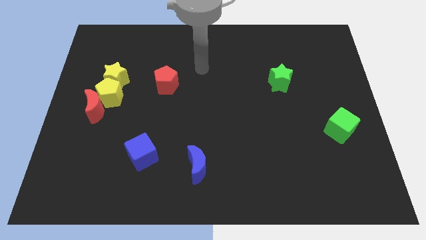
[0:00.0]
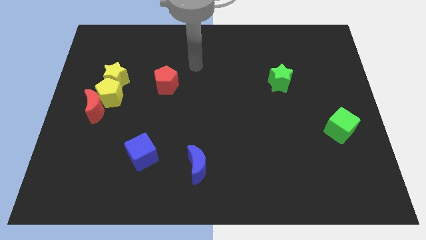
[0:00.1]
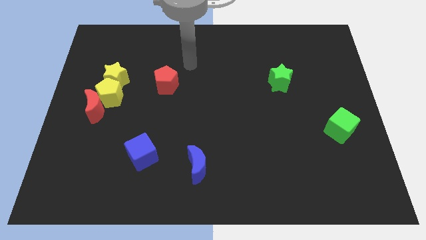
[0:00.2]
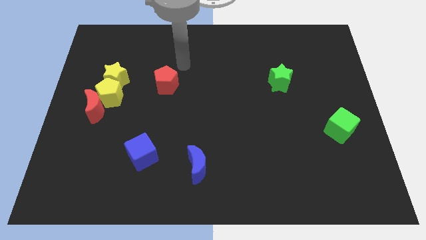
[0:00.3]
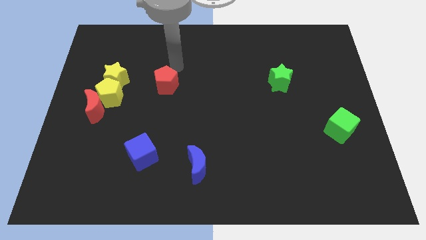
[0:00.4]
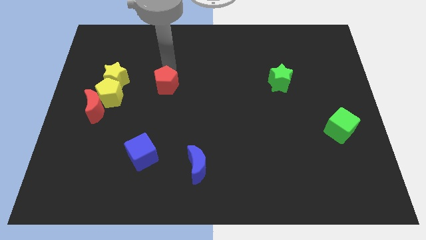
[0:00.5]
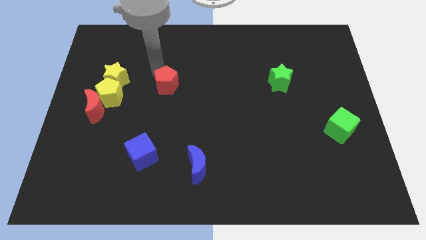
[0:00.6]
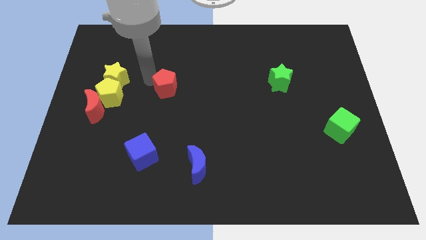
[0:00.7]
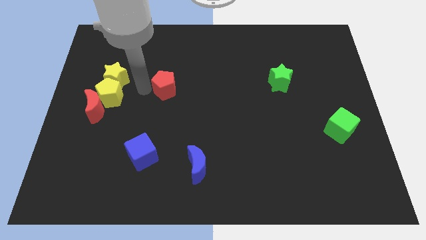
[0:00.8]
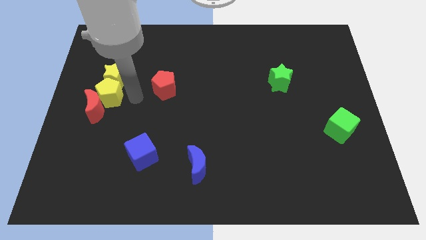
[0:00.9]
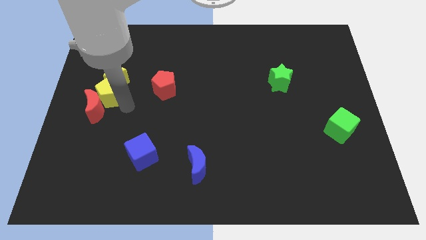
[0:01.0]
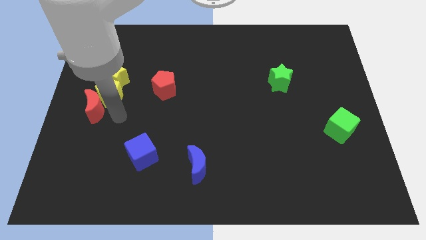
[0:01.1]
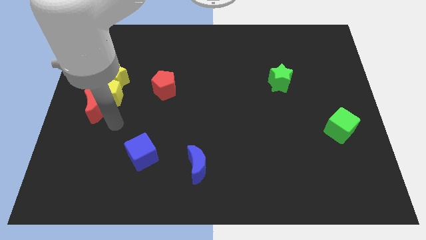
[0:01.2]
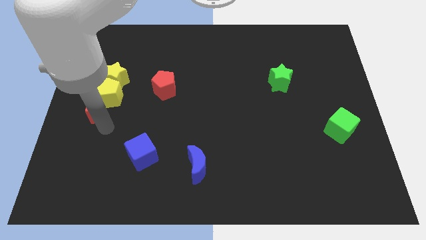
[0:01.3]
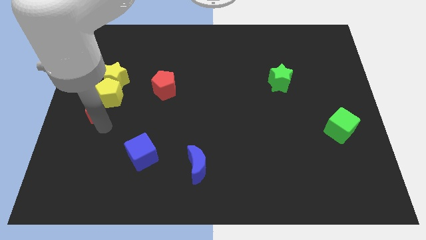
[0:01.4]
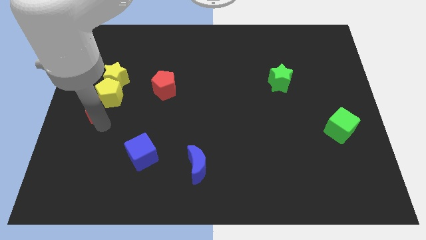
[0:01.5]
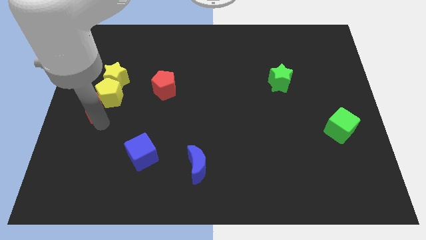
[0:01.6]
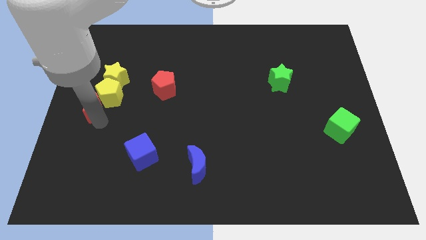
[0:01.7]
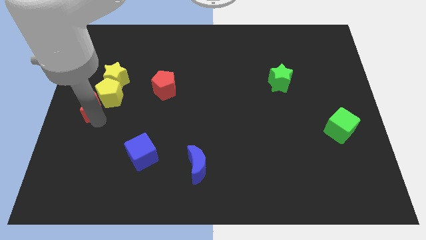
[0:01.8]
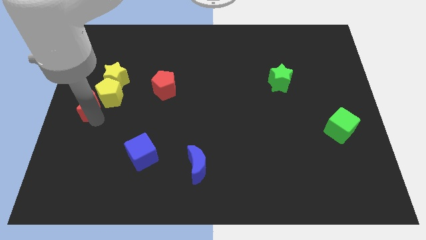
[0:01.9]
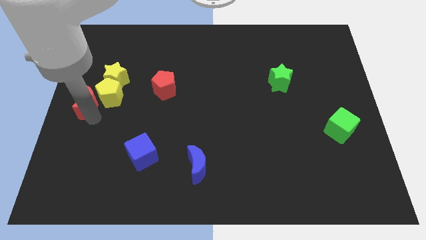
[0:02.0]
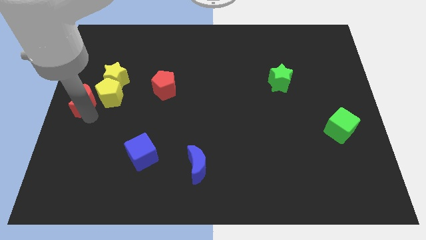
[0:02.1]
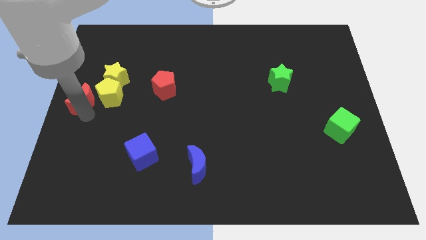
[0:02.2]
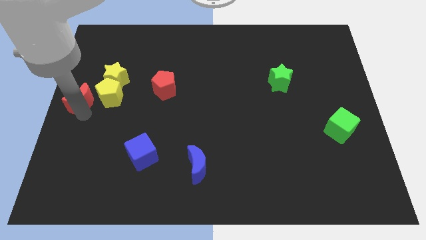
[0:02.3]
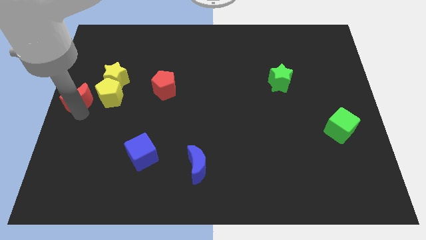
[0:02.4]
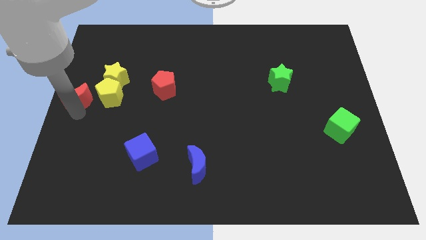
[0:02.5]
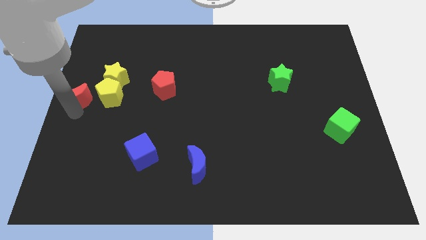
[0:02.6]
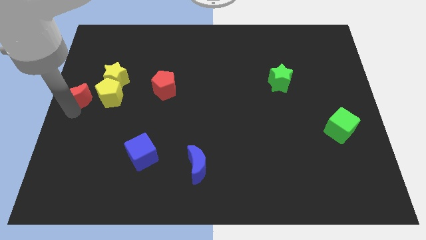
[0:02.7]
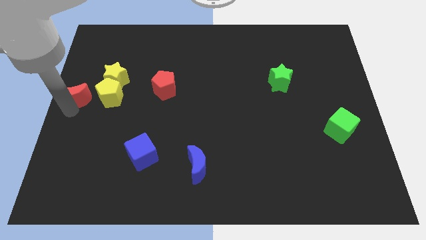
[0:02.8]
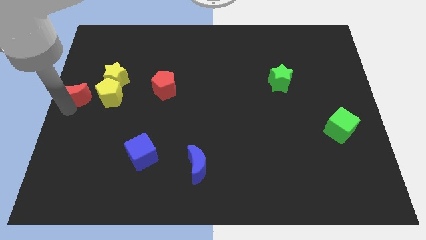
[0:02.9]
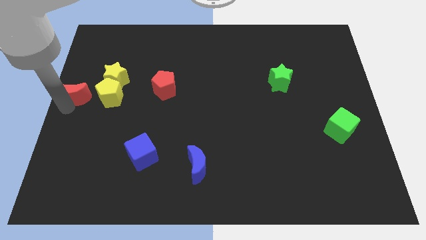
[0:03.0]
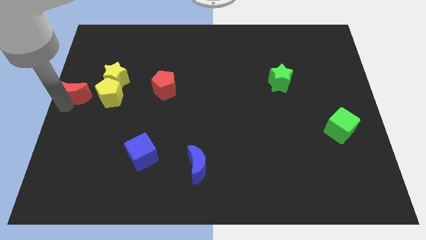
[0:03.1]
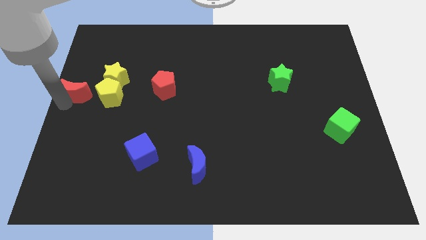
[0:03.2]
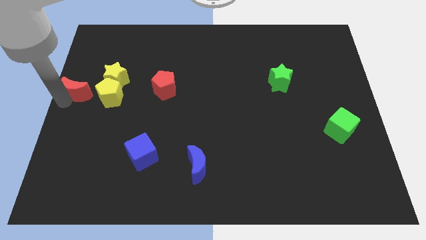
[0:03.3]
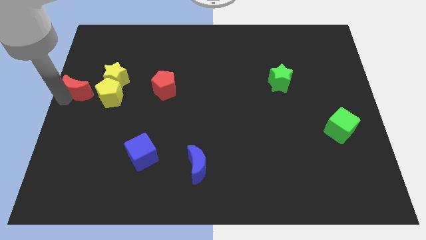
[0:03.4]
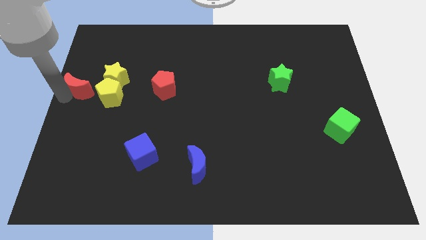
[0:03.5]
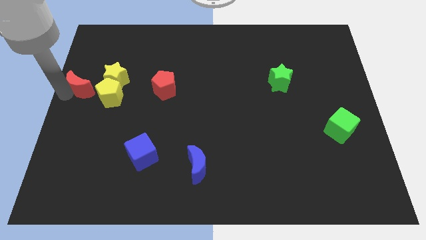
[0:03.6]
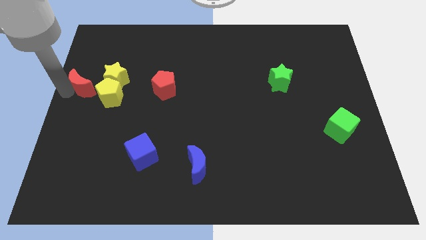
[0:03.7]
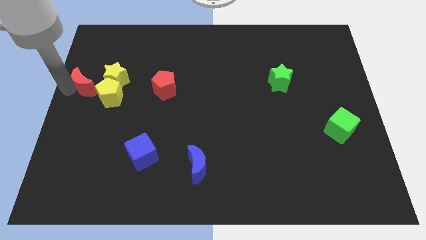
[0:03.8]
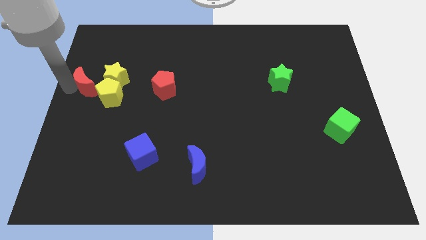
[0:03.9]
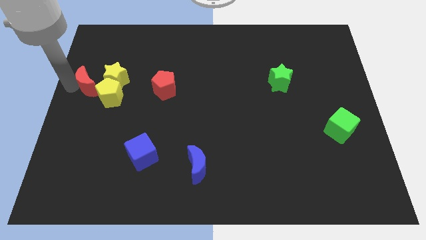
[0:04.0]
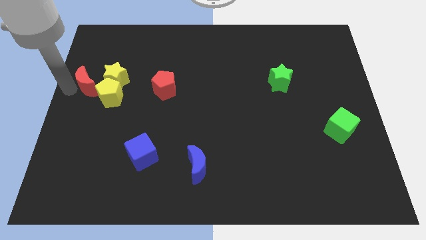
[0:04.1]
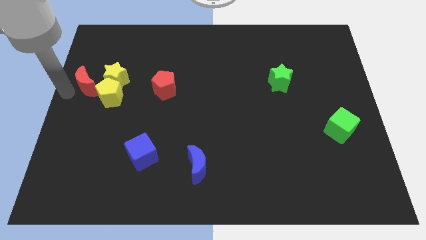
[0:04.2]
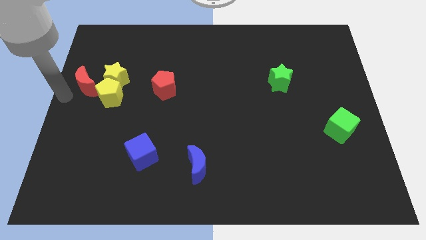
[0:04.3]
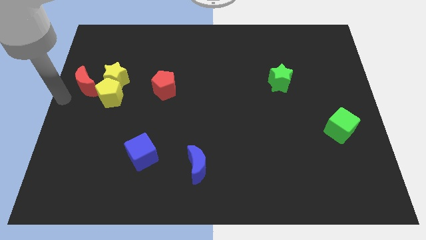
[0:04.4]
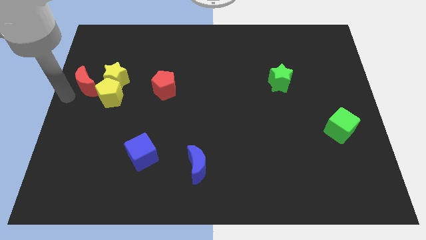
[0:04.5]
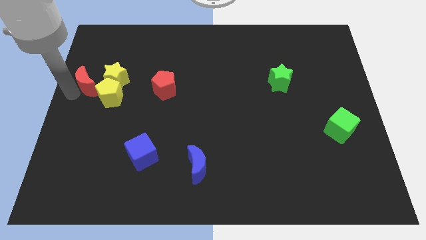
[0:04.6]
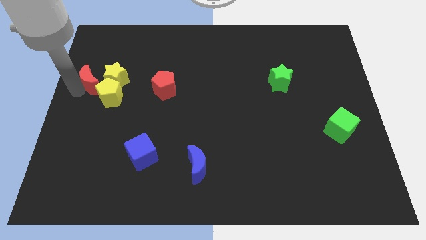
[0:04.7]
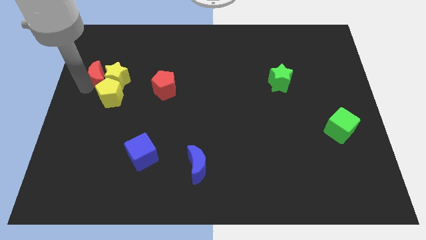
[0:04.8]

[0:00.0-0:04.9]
put the red moon to the top of the yellow pentagon

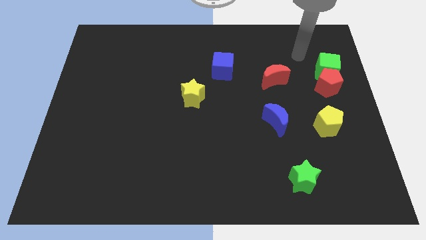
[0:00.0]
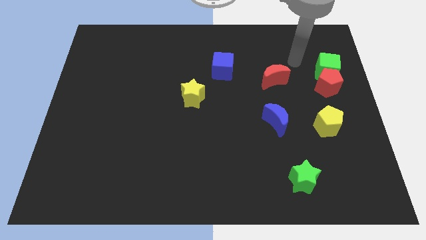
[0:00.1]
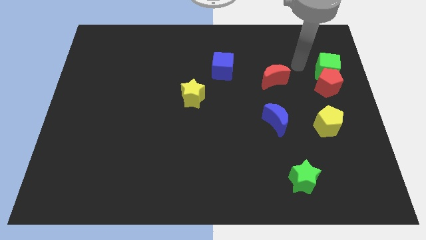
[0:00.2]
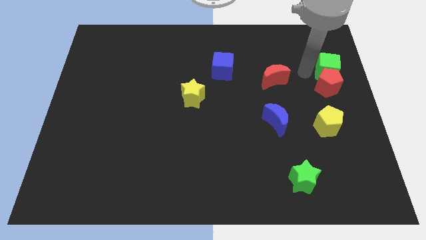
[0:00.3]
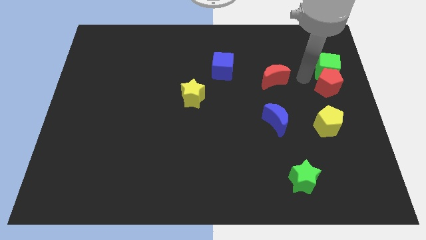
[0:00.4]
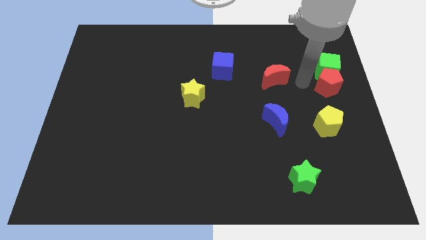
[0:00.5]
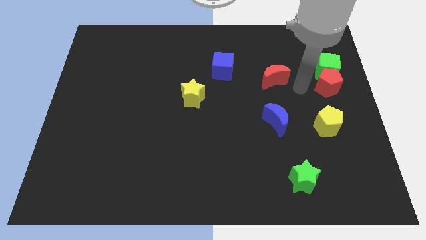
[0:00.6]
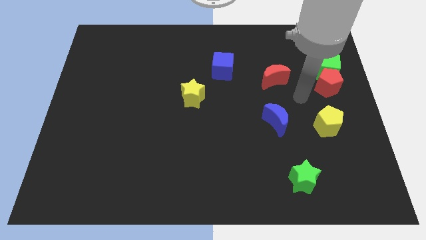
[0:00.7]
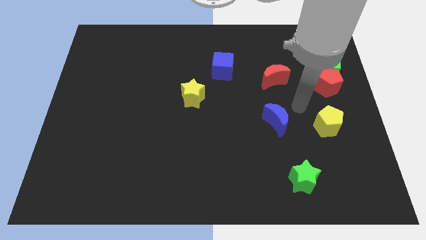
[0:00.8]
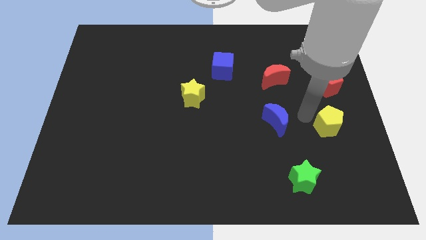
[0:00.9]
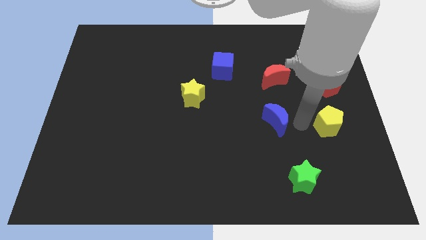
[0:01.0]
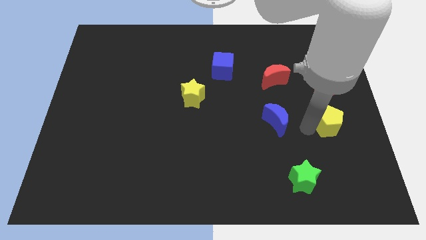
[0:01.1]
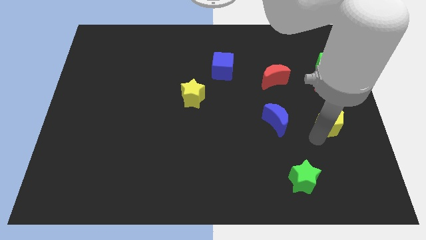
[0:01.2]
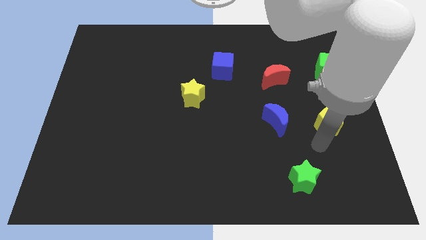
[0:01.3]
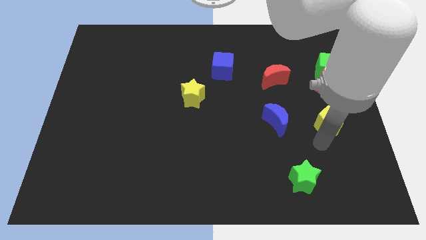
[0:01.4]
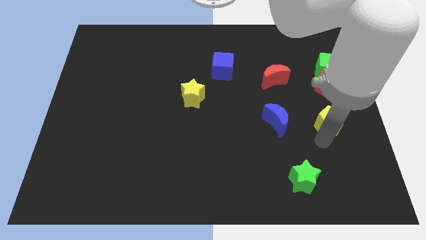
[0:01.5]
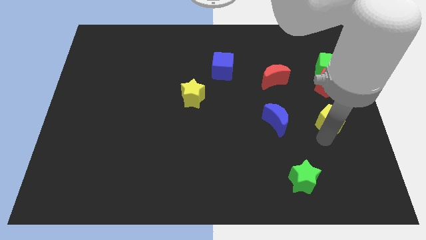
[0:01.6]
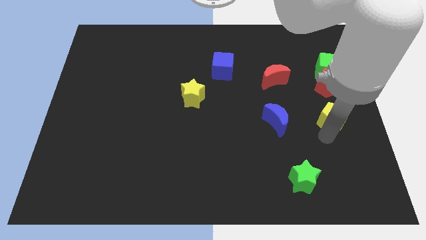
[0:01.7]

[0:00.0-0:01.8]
slide the yellow pentagon below the green cube
